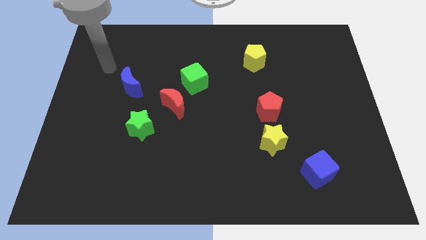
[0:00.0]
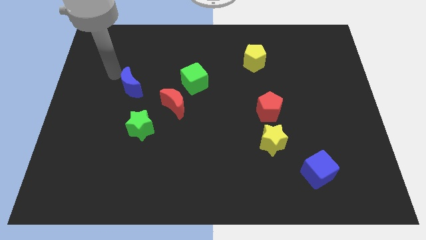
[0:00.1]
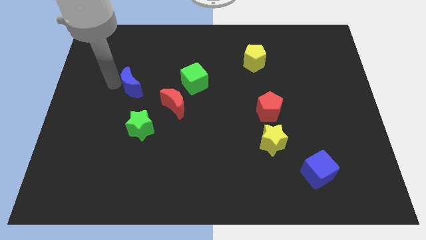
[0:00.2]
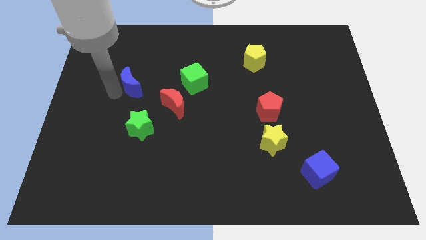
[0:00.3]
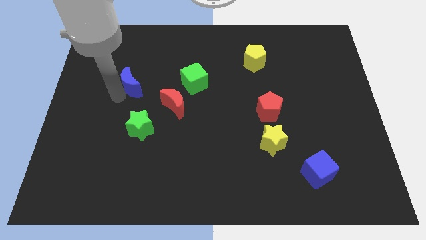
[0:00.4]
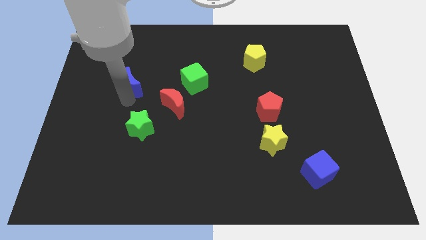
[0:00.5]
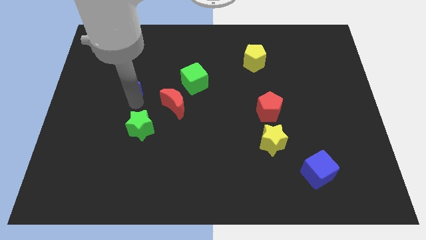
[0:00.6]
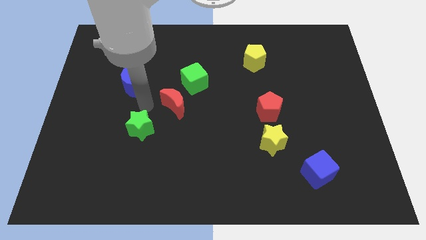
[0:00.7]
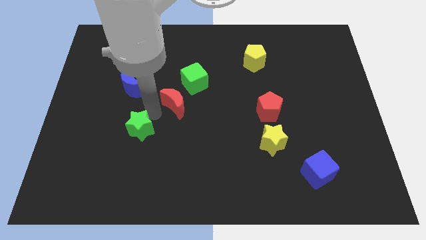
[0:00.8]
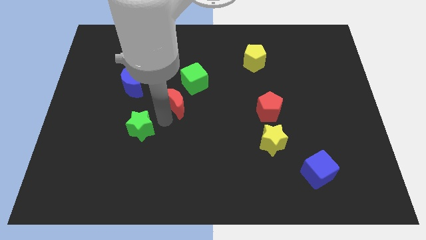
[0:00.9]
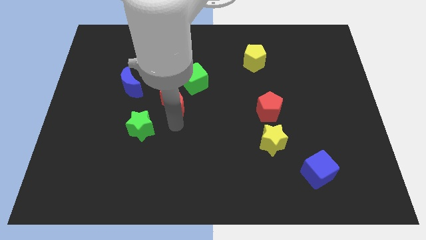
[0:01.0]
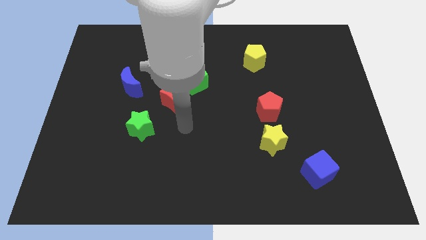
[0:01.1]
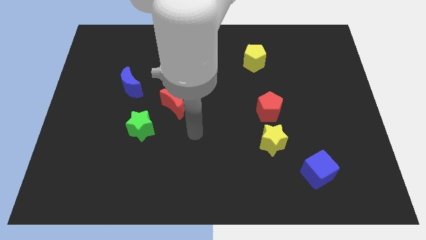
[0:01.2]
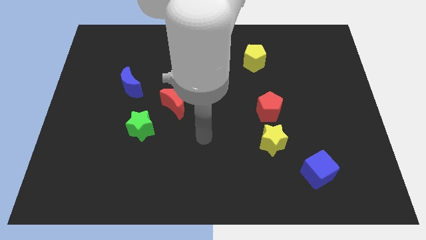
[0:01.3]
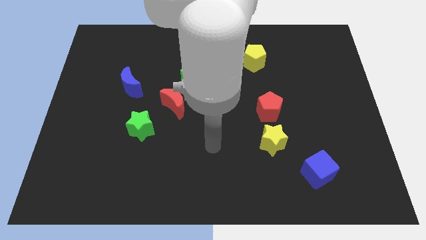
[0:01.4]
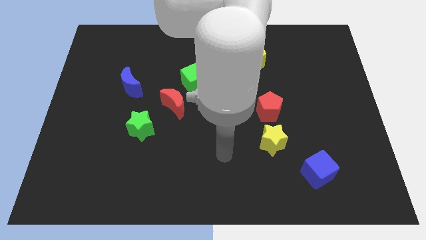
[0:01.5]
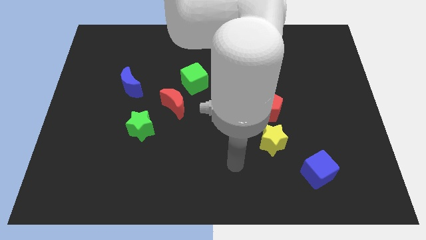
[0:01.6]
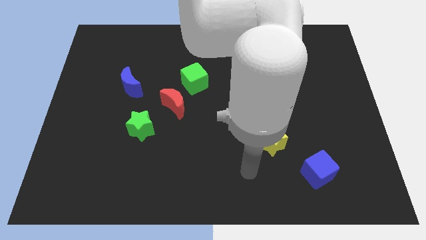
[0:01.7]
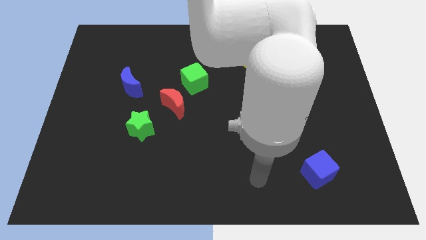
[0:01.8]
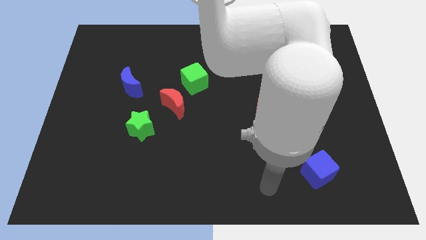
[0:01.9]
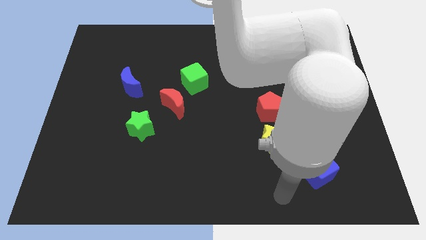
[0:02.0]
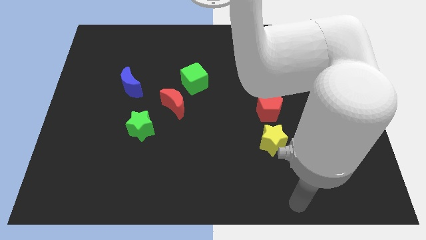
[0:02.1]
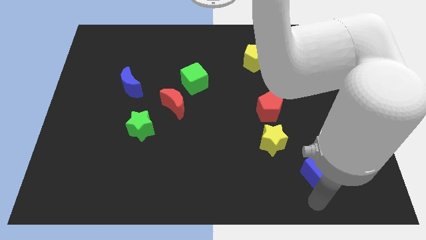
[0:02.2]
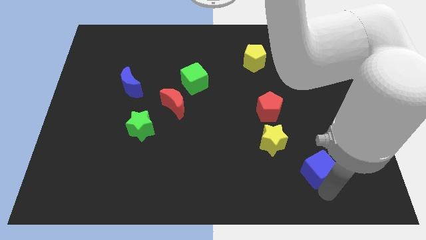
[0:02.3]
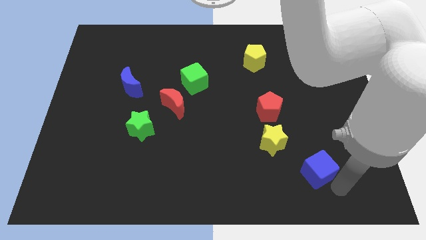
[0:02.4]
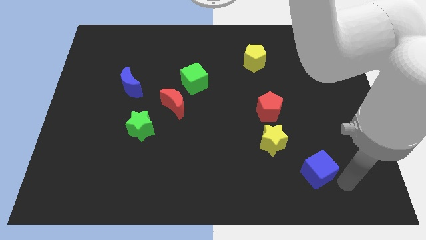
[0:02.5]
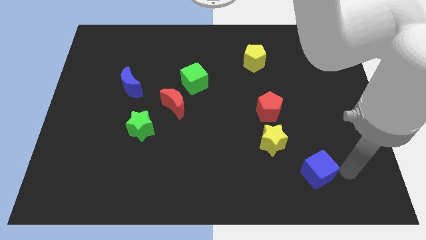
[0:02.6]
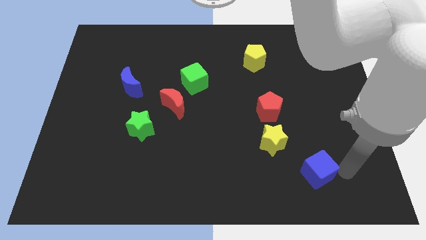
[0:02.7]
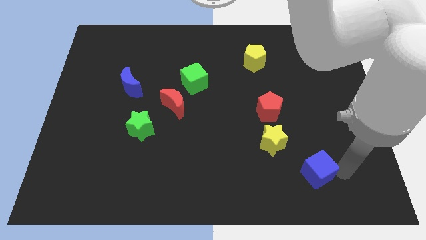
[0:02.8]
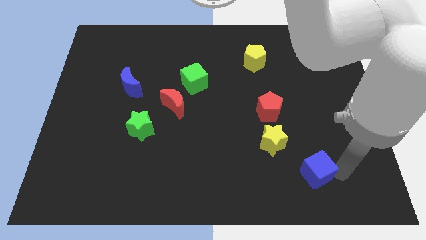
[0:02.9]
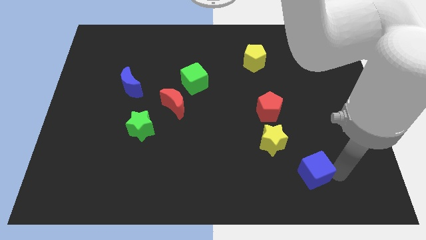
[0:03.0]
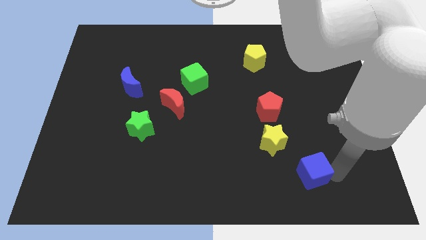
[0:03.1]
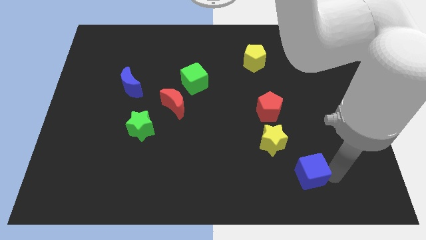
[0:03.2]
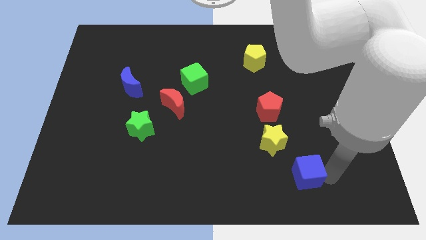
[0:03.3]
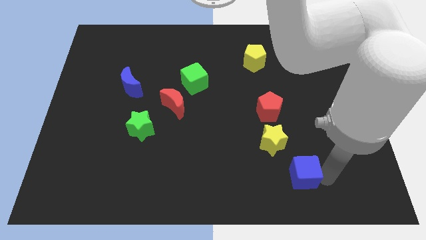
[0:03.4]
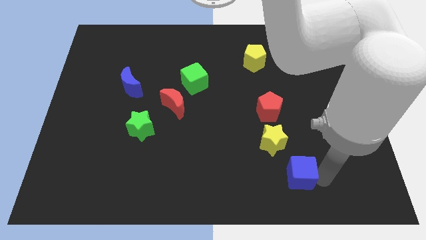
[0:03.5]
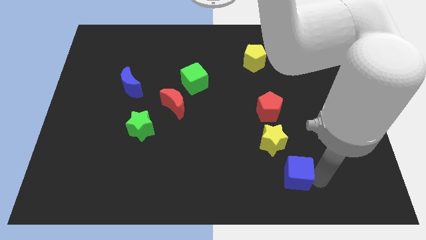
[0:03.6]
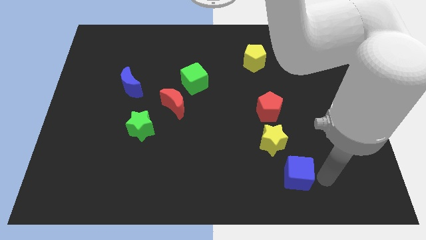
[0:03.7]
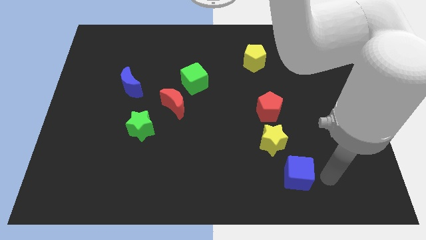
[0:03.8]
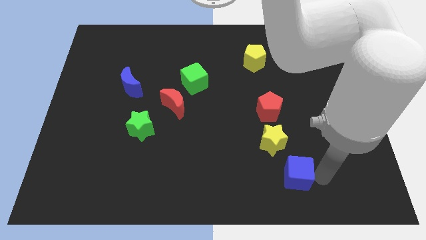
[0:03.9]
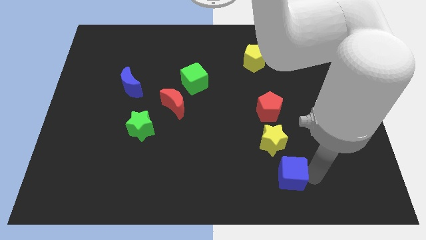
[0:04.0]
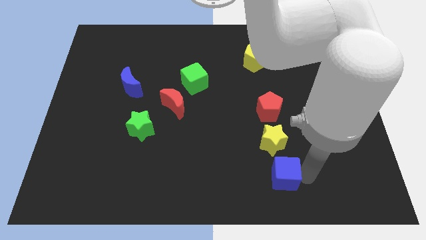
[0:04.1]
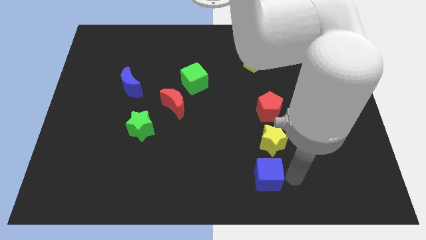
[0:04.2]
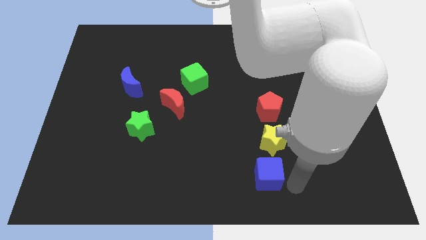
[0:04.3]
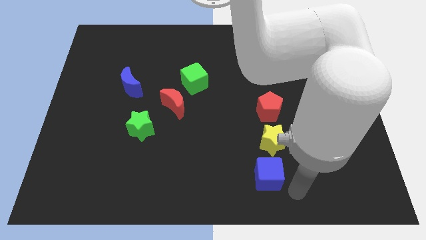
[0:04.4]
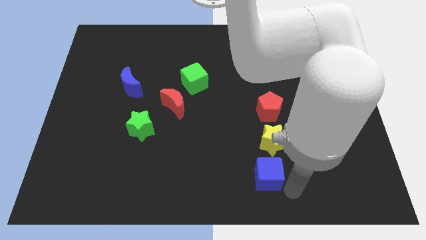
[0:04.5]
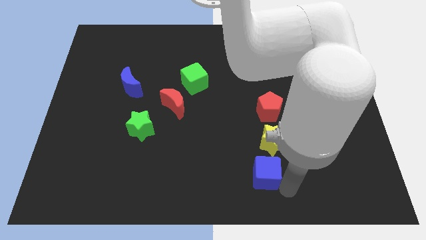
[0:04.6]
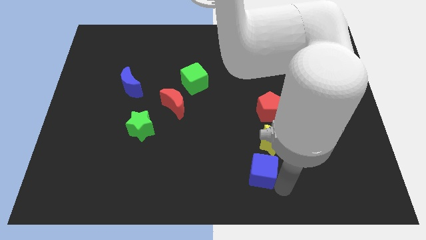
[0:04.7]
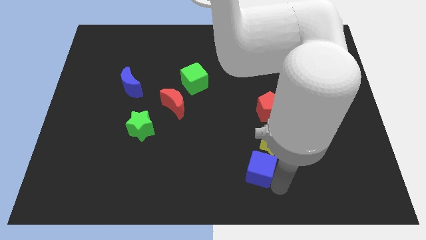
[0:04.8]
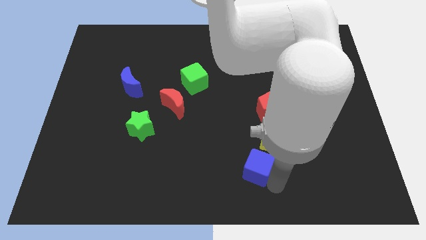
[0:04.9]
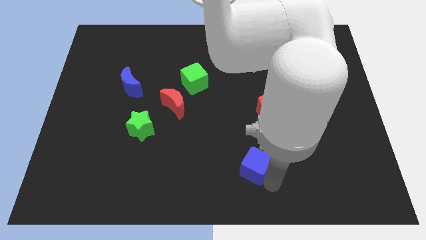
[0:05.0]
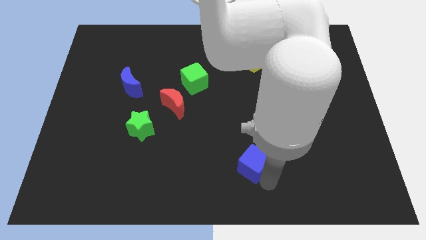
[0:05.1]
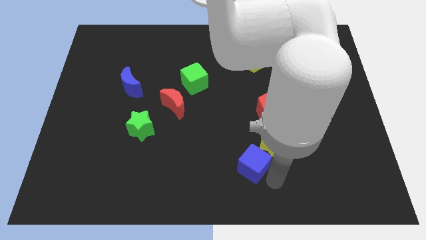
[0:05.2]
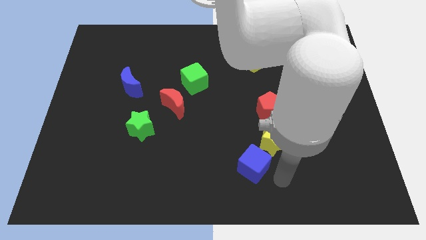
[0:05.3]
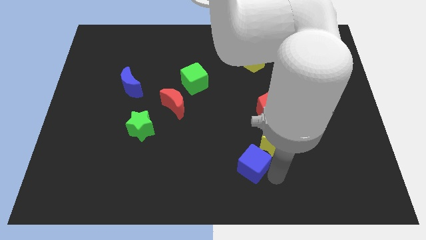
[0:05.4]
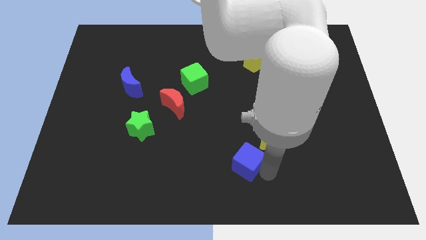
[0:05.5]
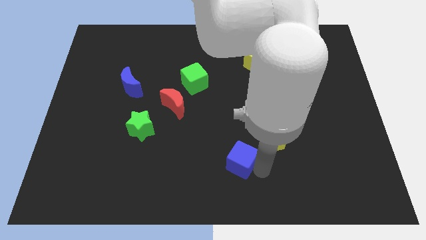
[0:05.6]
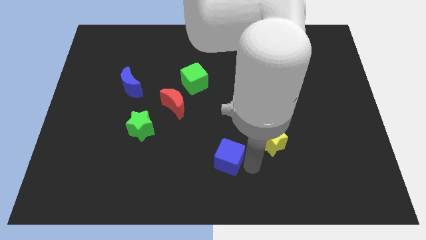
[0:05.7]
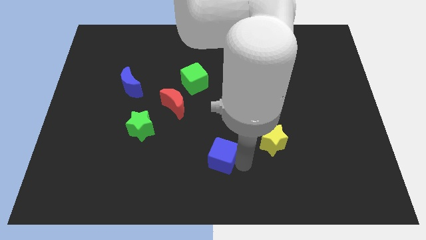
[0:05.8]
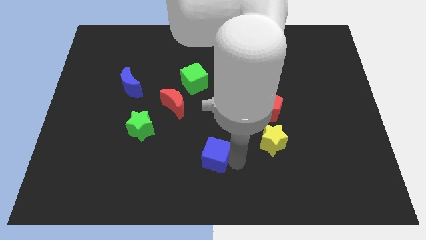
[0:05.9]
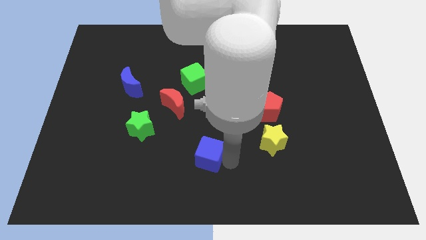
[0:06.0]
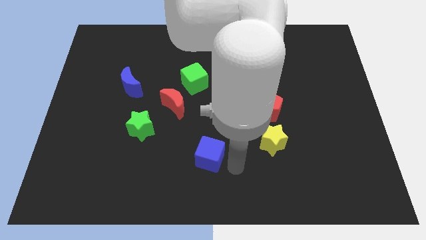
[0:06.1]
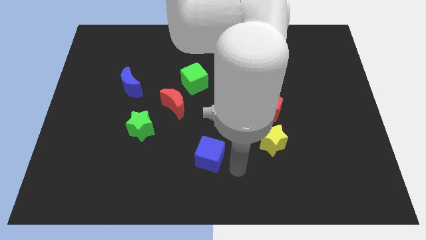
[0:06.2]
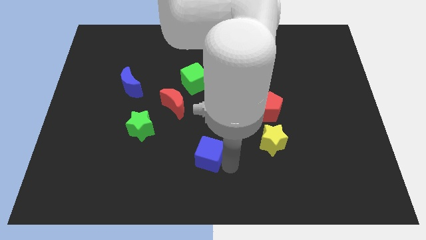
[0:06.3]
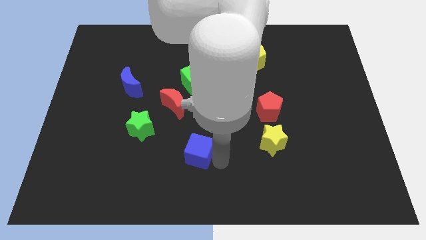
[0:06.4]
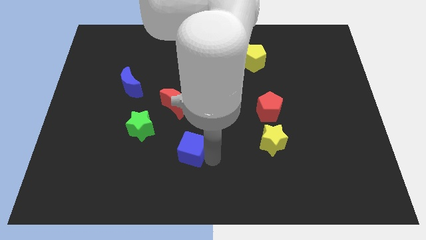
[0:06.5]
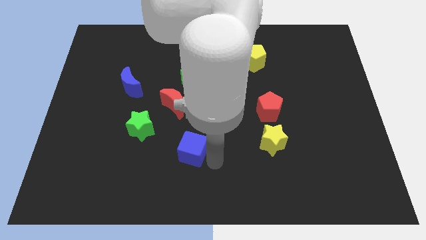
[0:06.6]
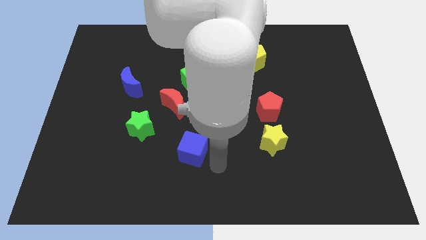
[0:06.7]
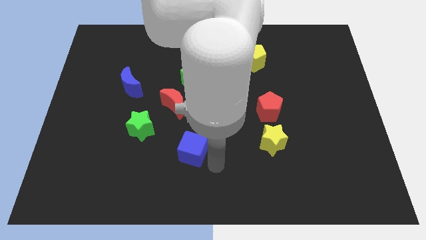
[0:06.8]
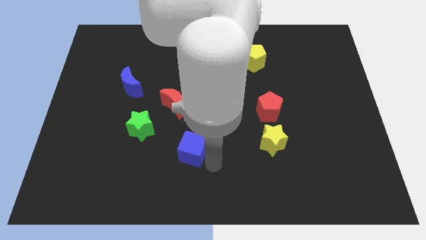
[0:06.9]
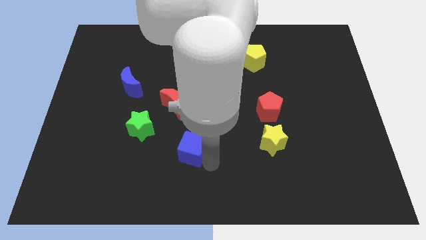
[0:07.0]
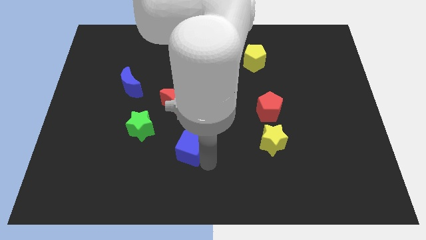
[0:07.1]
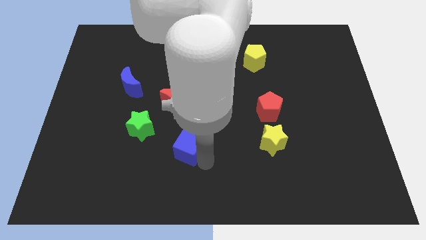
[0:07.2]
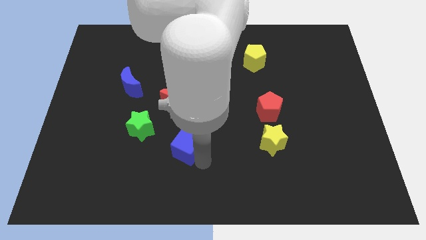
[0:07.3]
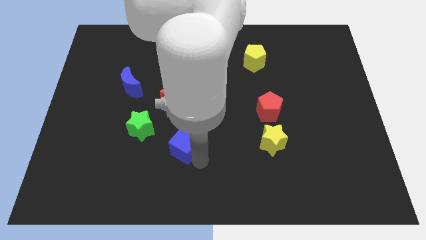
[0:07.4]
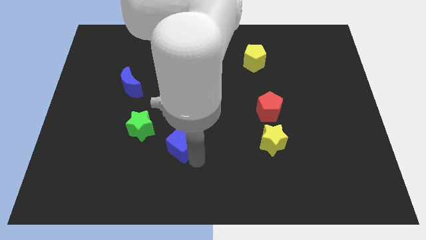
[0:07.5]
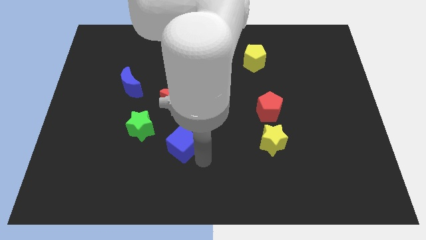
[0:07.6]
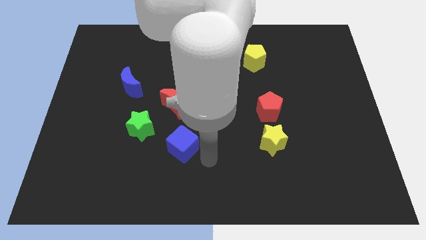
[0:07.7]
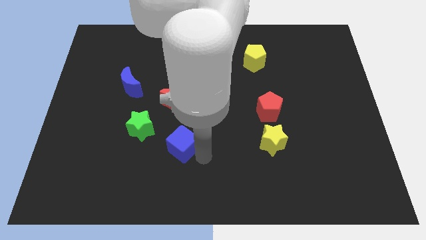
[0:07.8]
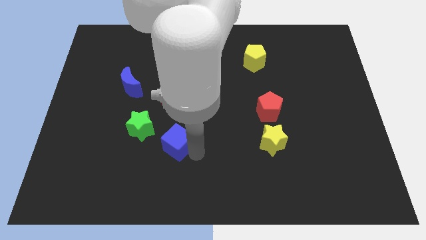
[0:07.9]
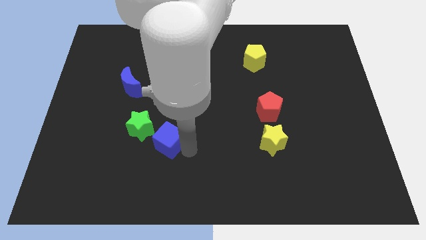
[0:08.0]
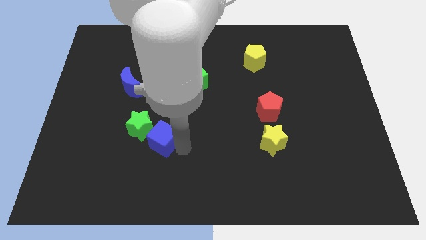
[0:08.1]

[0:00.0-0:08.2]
move the blue cube next to the green star
